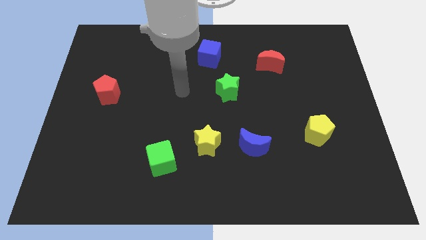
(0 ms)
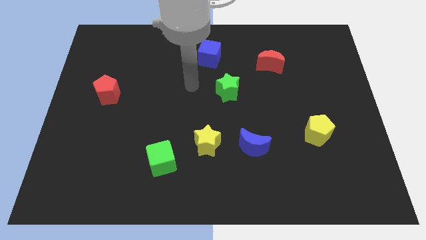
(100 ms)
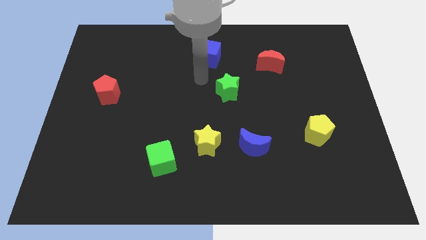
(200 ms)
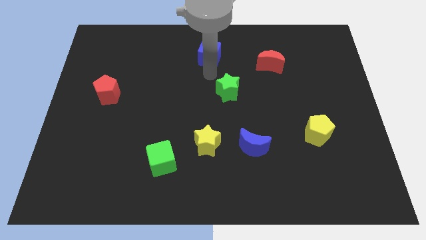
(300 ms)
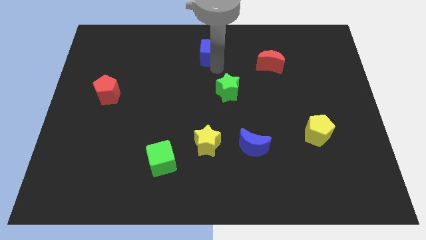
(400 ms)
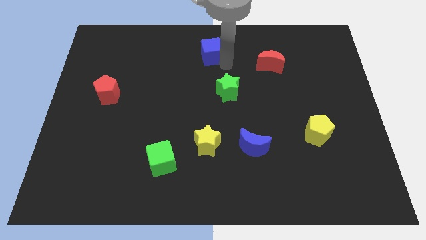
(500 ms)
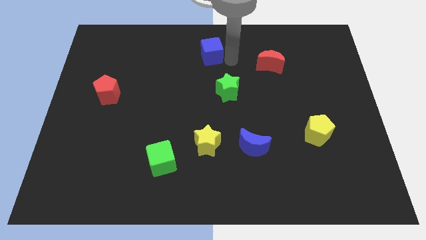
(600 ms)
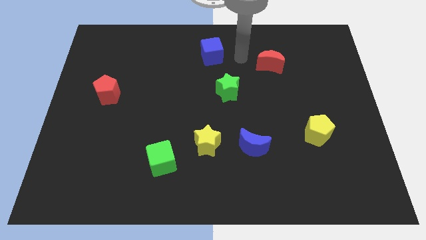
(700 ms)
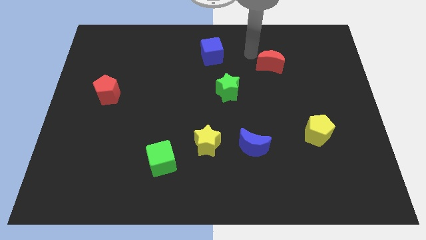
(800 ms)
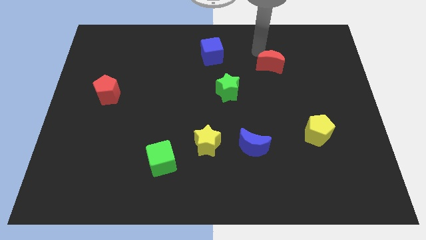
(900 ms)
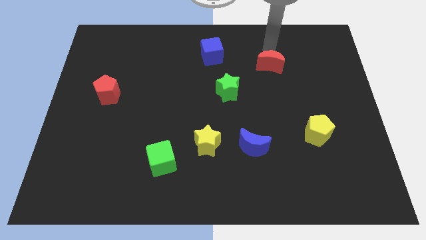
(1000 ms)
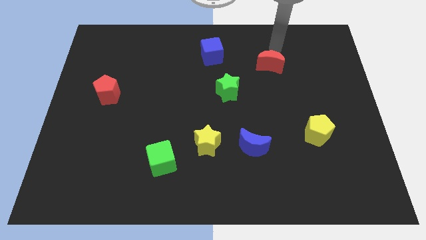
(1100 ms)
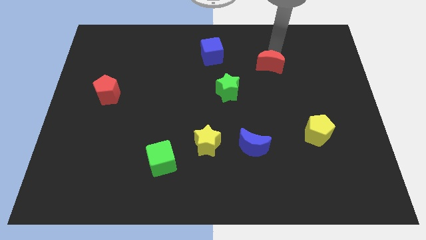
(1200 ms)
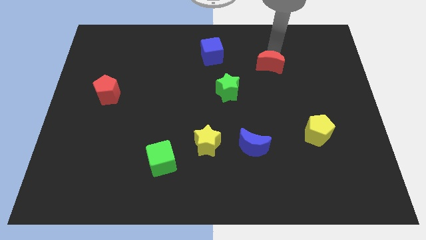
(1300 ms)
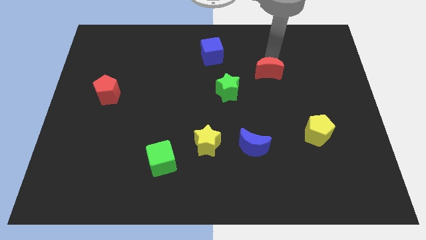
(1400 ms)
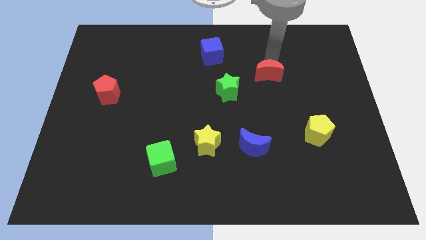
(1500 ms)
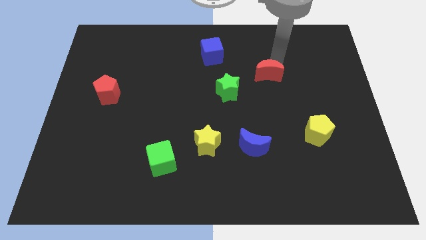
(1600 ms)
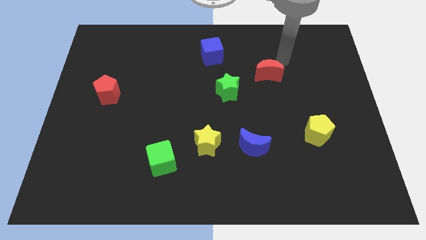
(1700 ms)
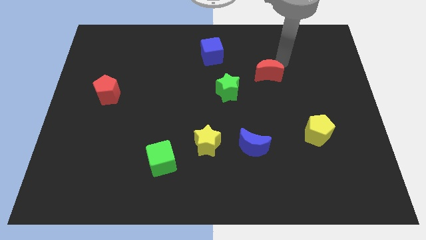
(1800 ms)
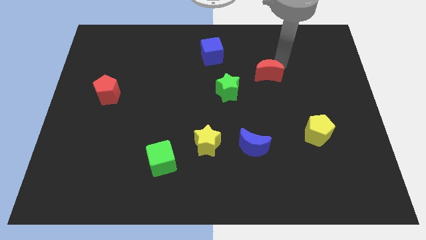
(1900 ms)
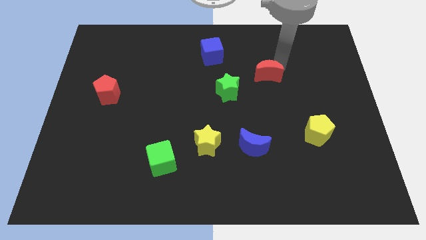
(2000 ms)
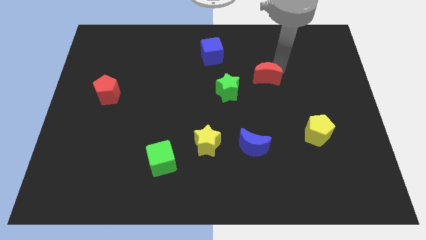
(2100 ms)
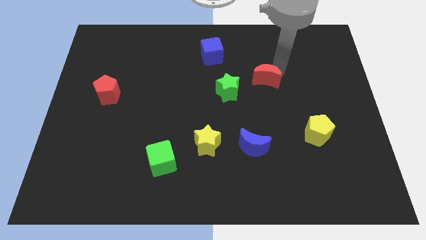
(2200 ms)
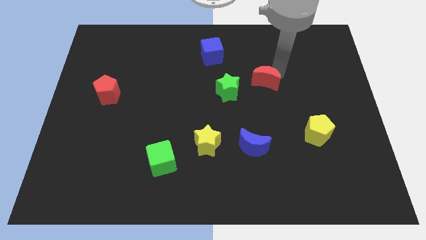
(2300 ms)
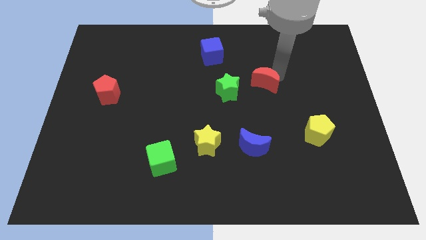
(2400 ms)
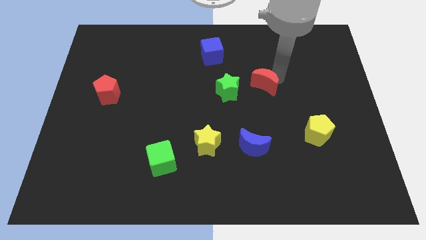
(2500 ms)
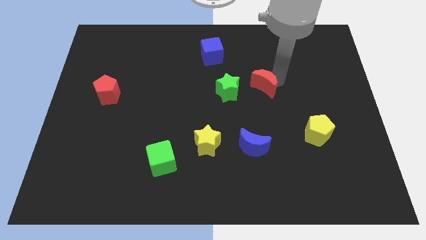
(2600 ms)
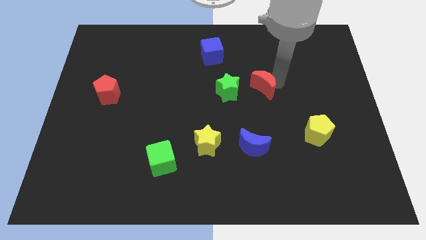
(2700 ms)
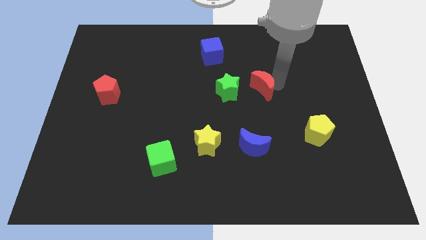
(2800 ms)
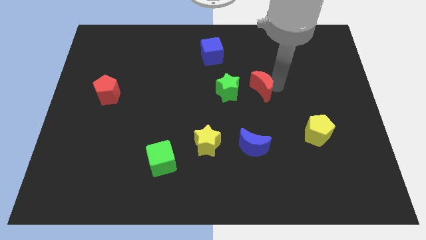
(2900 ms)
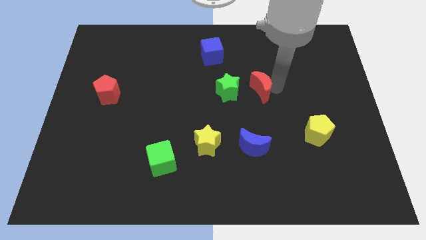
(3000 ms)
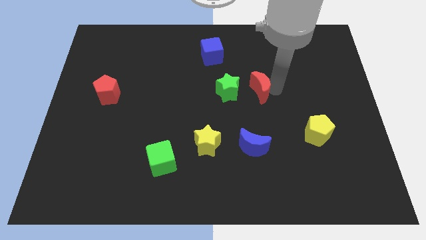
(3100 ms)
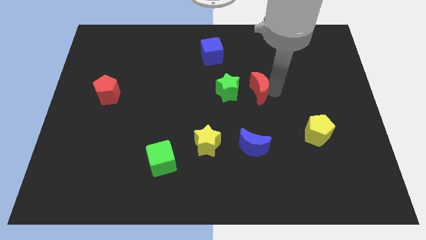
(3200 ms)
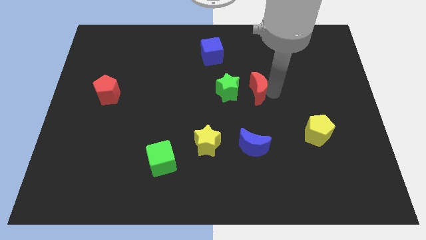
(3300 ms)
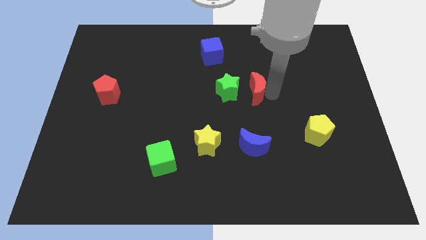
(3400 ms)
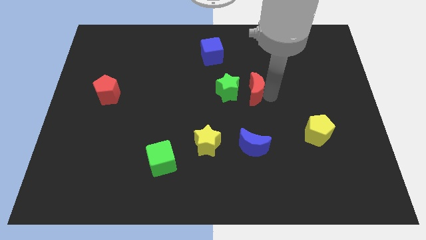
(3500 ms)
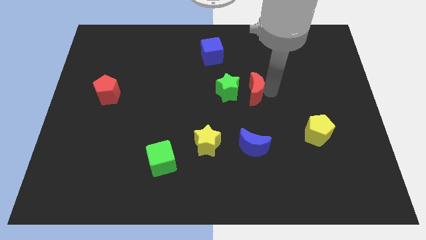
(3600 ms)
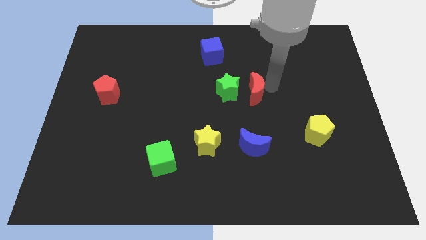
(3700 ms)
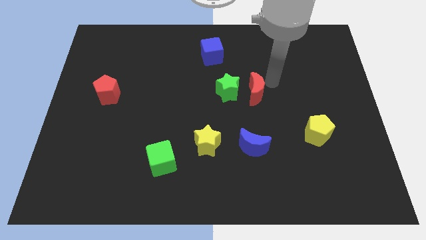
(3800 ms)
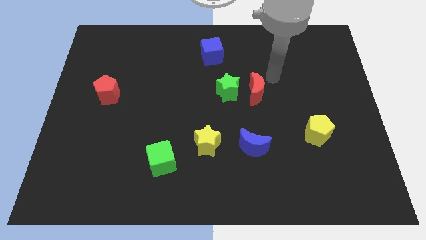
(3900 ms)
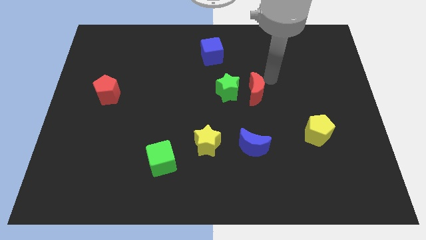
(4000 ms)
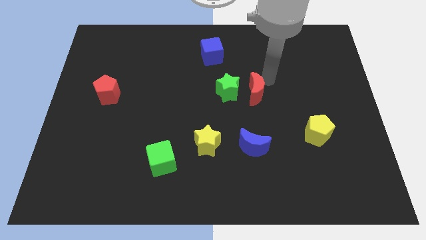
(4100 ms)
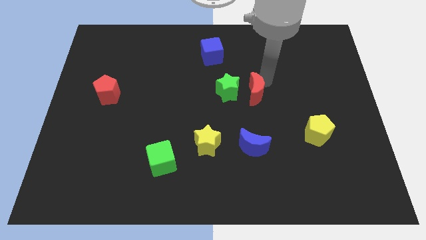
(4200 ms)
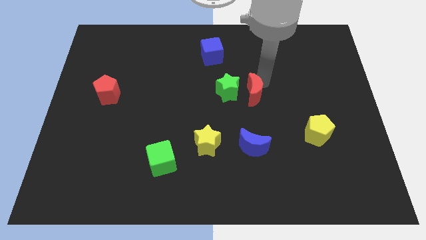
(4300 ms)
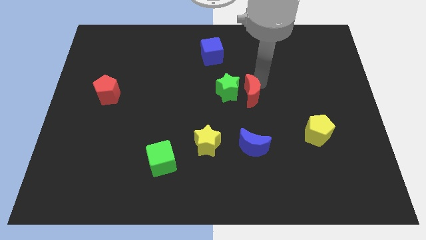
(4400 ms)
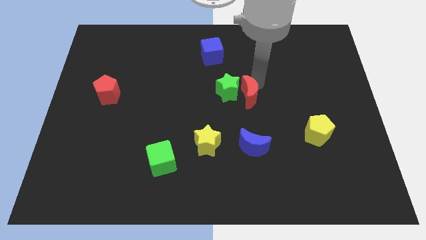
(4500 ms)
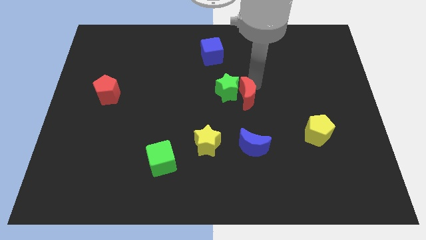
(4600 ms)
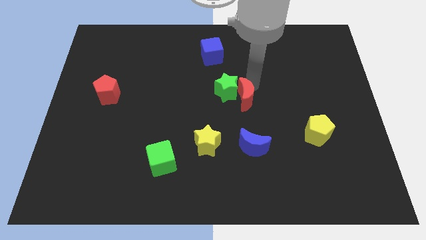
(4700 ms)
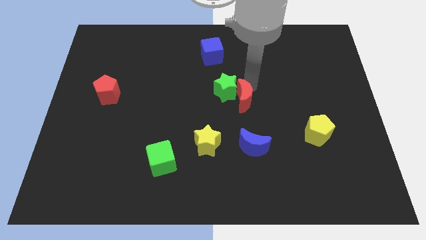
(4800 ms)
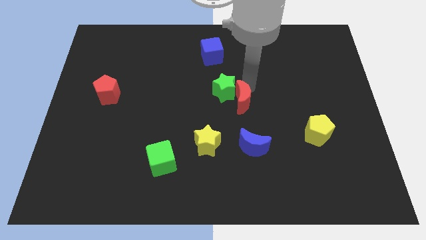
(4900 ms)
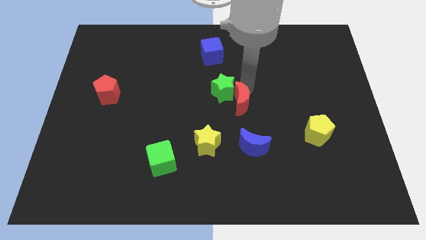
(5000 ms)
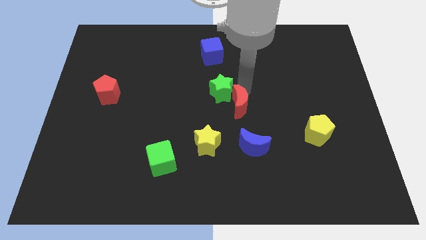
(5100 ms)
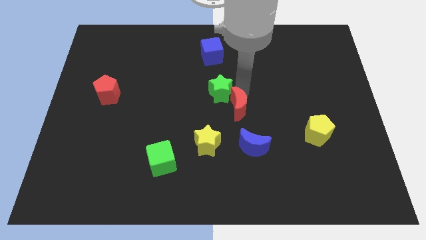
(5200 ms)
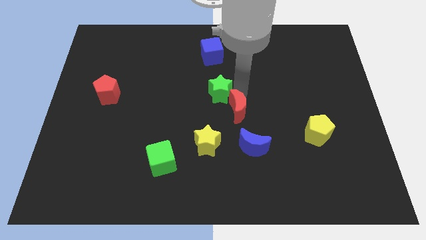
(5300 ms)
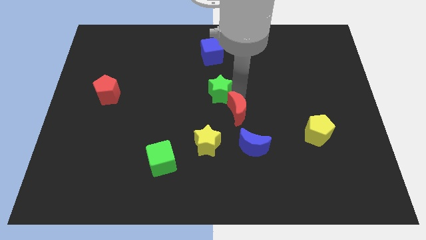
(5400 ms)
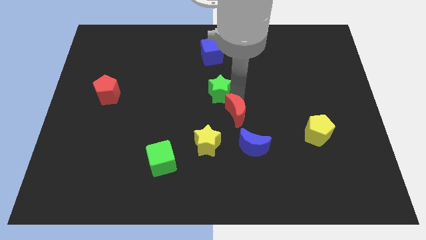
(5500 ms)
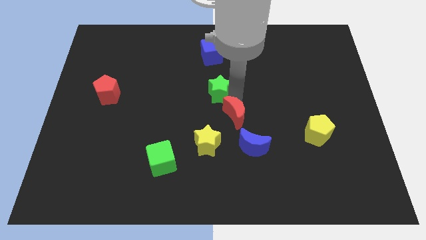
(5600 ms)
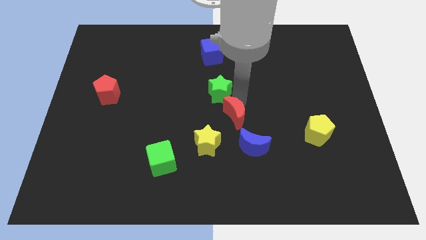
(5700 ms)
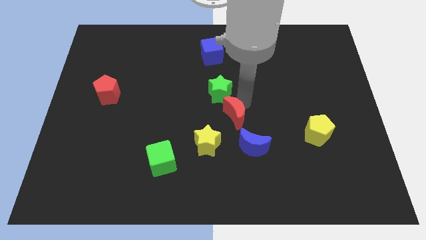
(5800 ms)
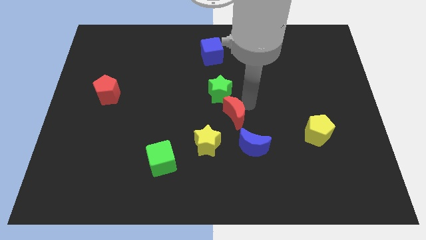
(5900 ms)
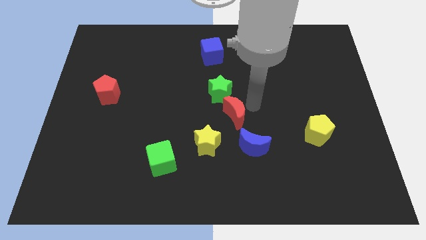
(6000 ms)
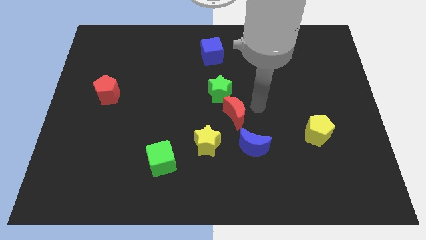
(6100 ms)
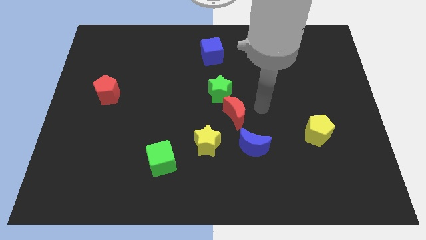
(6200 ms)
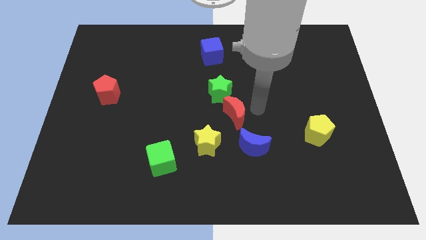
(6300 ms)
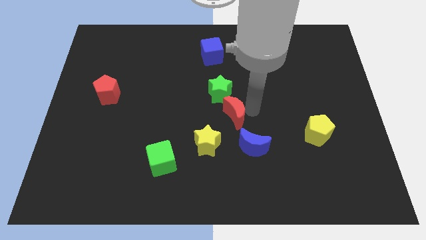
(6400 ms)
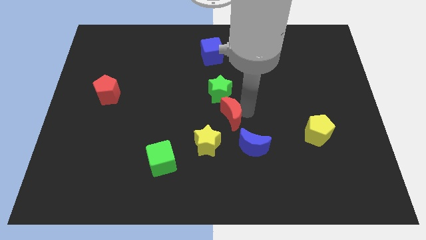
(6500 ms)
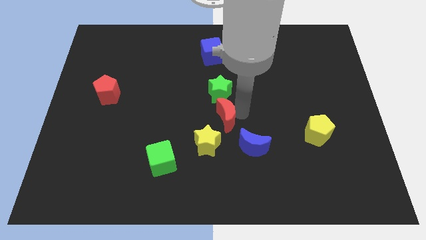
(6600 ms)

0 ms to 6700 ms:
push the red moon down and left

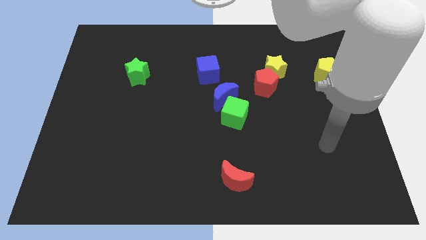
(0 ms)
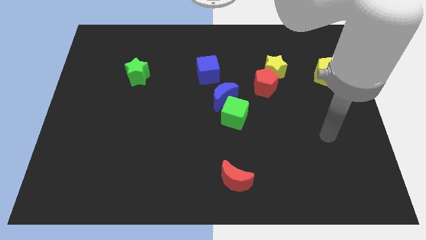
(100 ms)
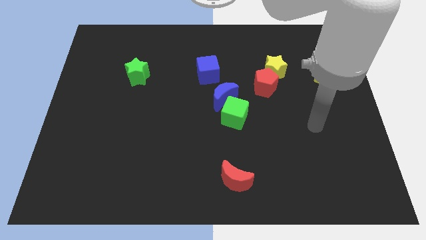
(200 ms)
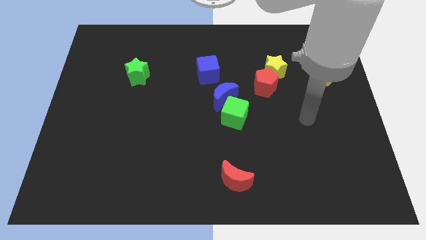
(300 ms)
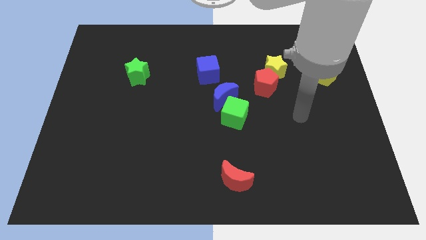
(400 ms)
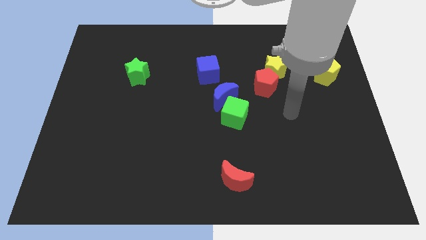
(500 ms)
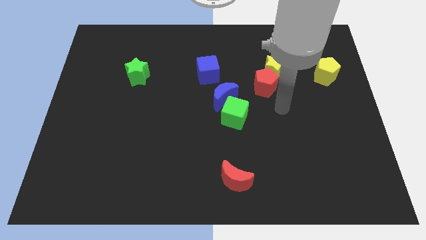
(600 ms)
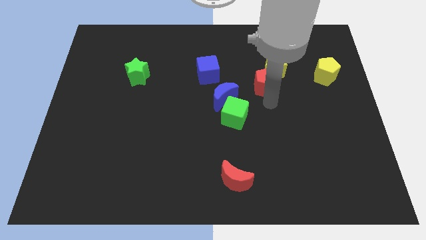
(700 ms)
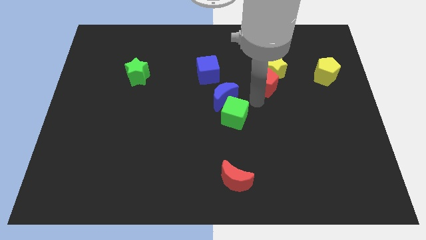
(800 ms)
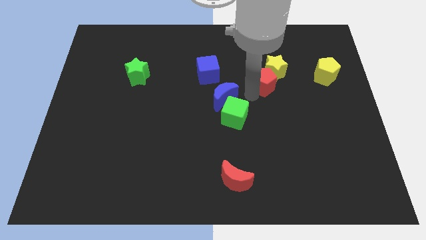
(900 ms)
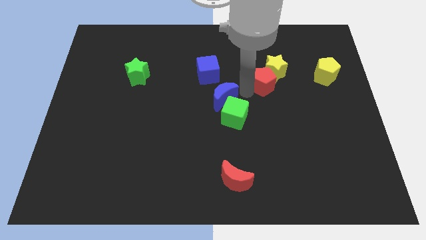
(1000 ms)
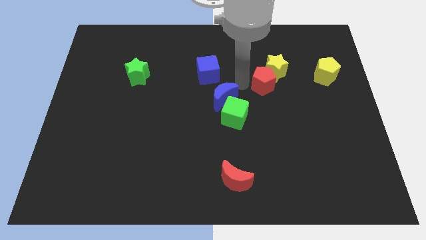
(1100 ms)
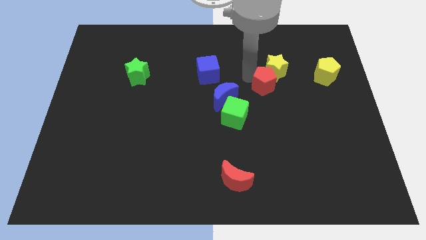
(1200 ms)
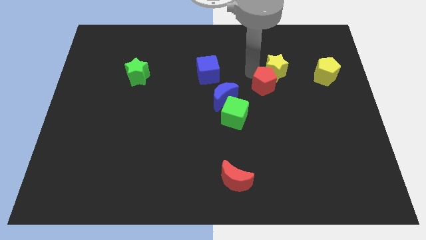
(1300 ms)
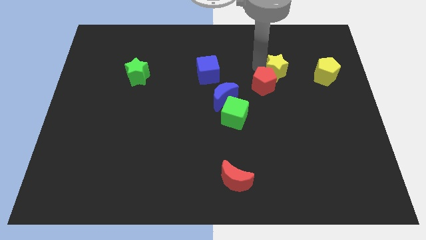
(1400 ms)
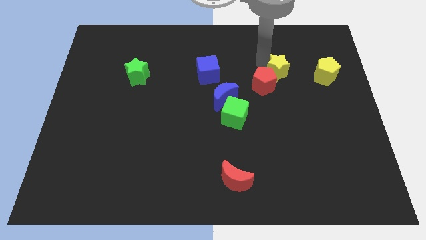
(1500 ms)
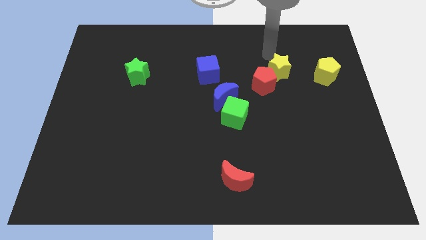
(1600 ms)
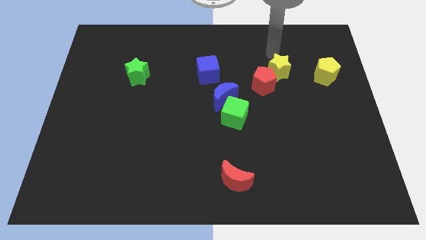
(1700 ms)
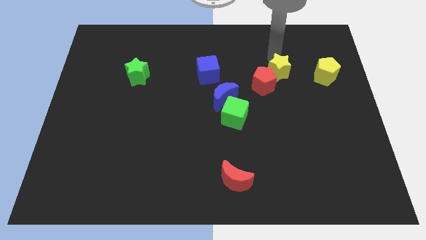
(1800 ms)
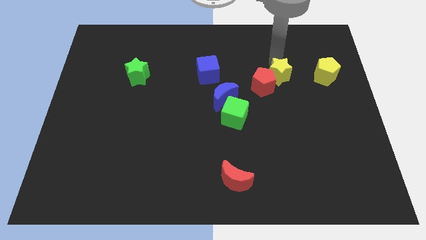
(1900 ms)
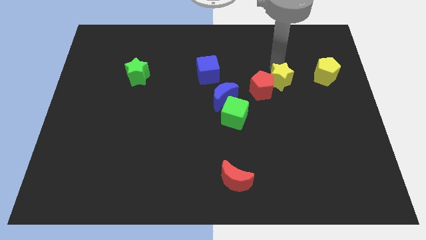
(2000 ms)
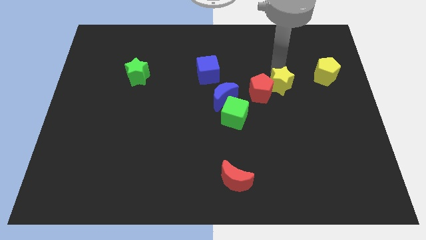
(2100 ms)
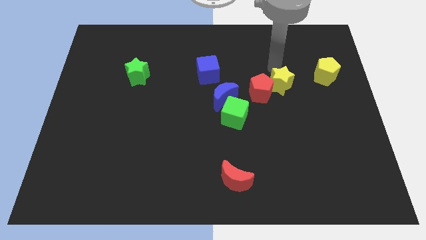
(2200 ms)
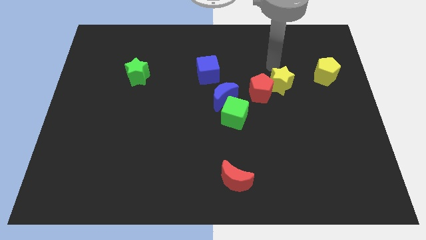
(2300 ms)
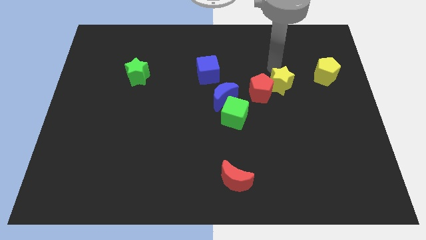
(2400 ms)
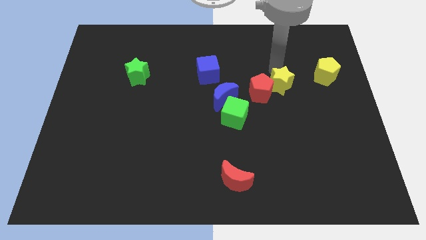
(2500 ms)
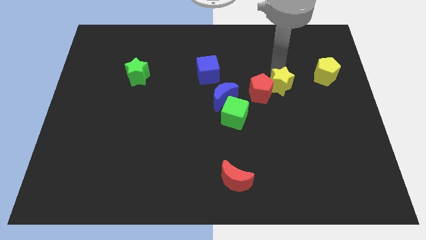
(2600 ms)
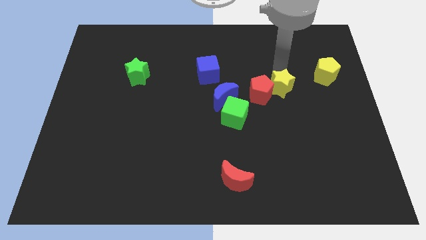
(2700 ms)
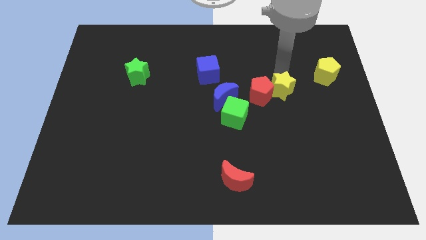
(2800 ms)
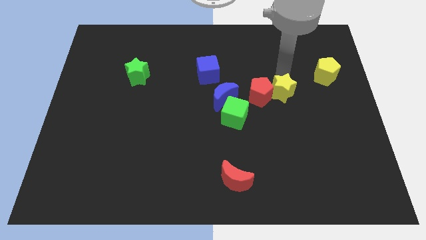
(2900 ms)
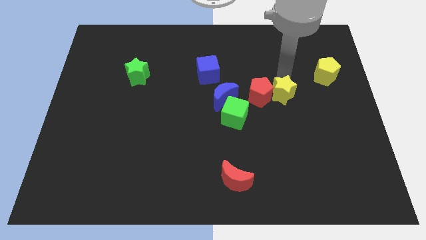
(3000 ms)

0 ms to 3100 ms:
slide the yellow star downwards slightly
